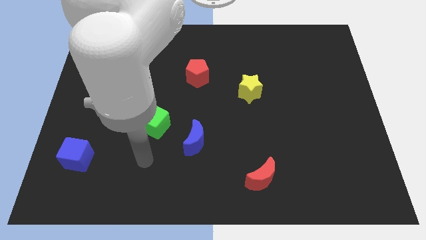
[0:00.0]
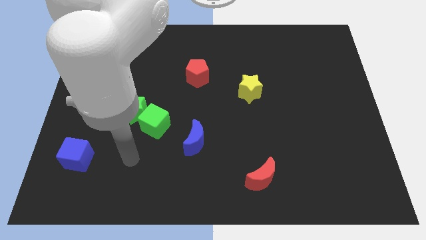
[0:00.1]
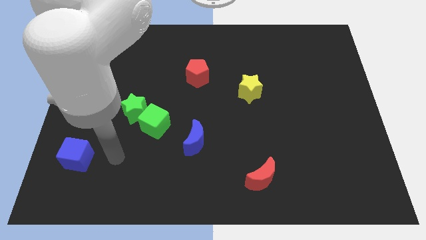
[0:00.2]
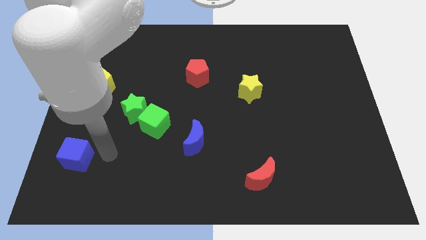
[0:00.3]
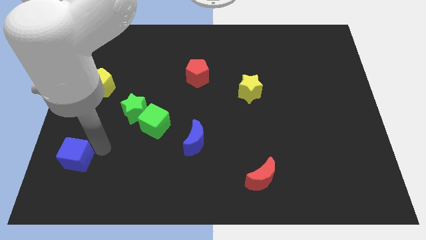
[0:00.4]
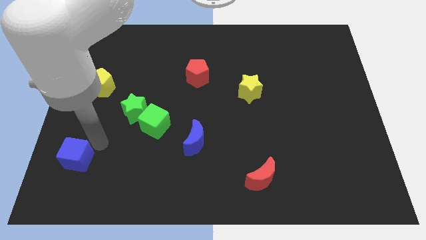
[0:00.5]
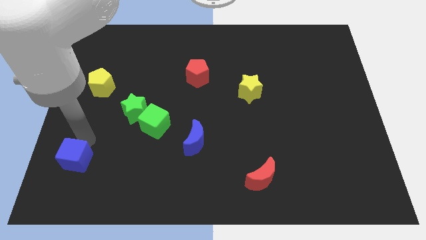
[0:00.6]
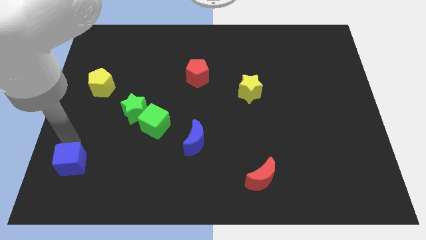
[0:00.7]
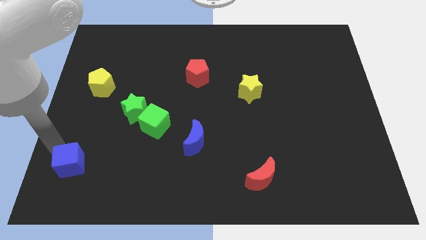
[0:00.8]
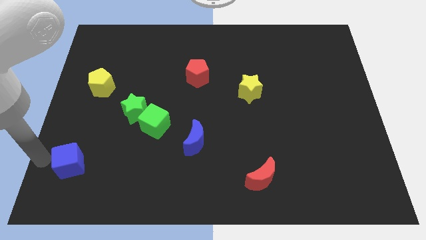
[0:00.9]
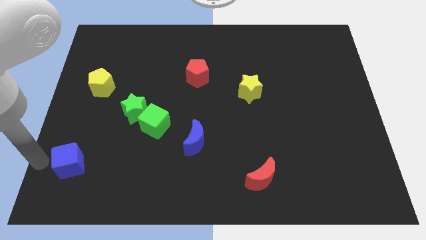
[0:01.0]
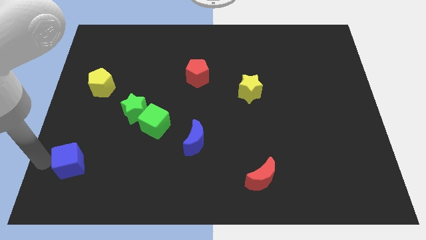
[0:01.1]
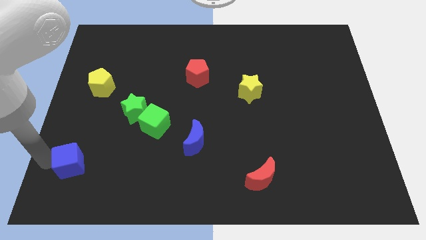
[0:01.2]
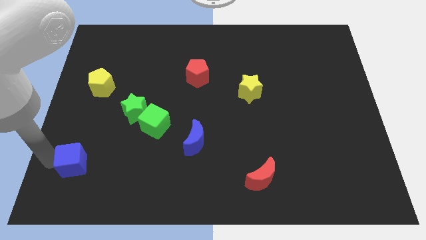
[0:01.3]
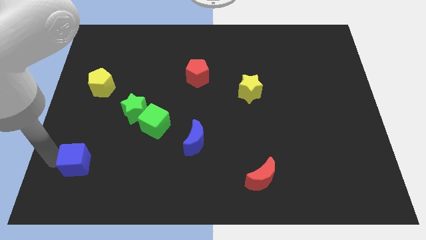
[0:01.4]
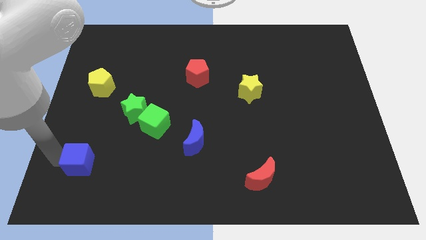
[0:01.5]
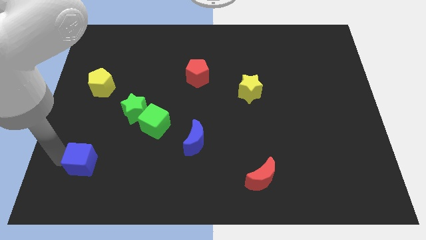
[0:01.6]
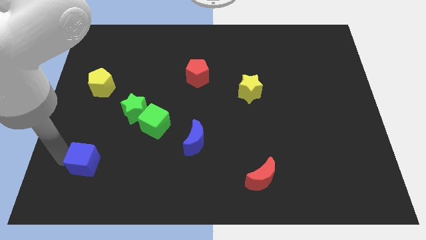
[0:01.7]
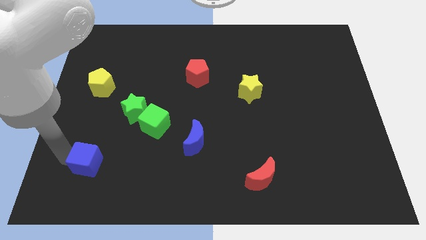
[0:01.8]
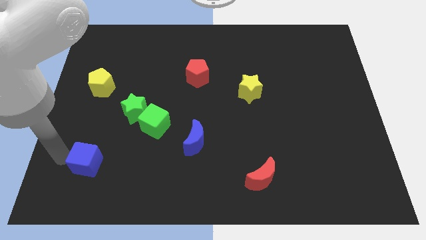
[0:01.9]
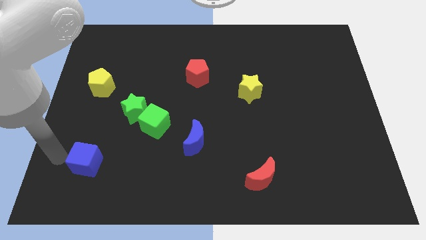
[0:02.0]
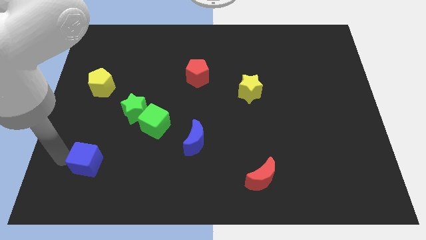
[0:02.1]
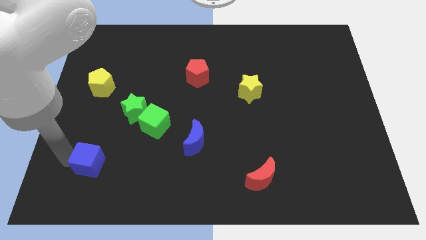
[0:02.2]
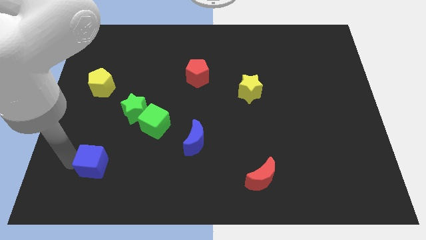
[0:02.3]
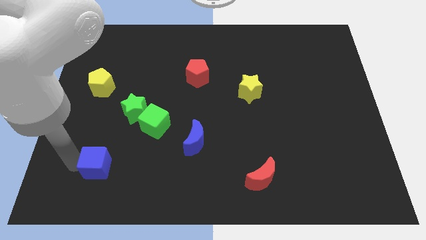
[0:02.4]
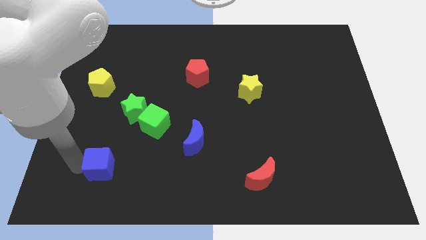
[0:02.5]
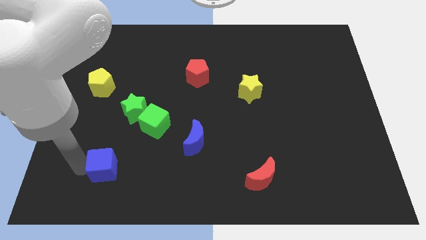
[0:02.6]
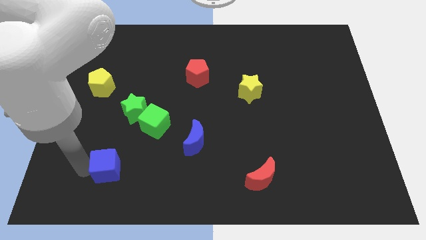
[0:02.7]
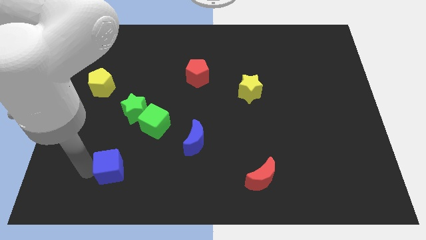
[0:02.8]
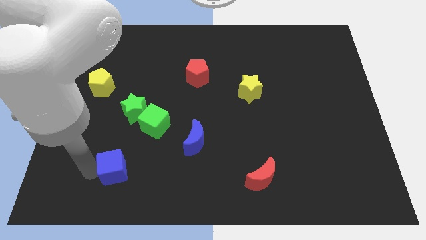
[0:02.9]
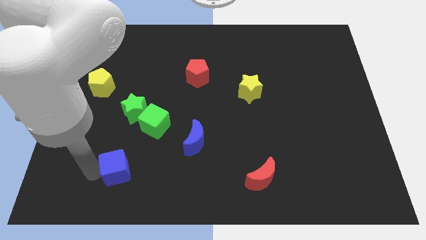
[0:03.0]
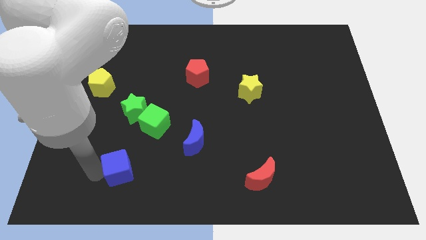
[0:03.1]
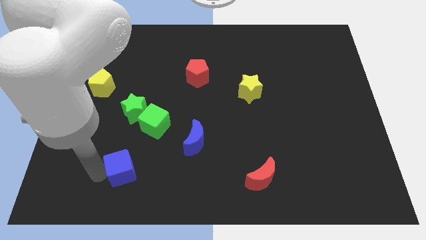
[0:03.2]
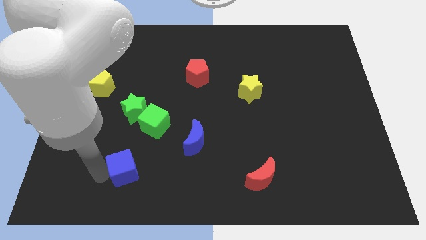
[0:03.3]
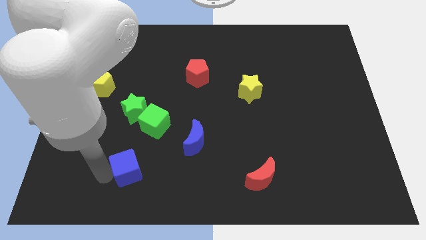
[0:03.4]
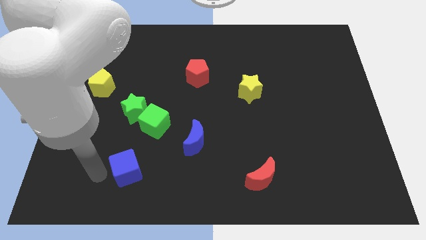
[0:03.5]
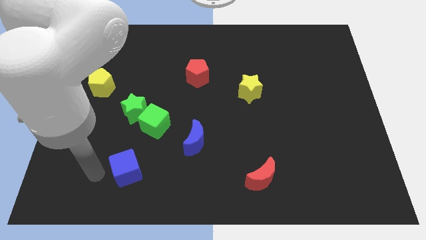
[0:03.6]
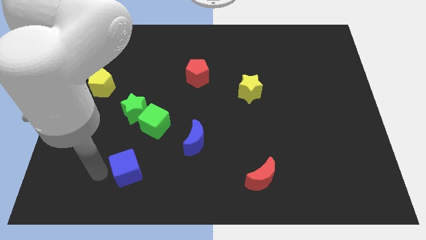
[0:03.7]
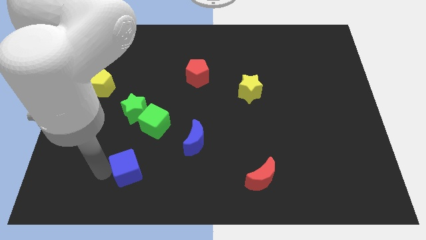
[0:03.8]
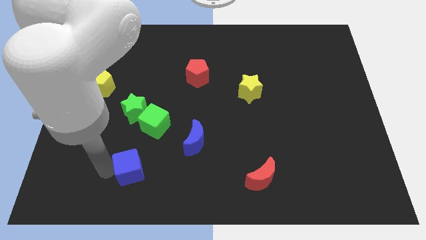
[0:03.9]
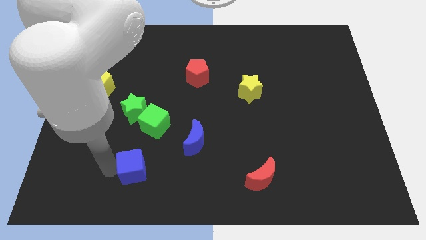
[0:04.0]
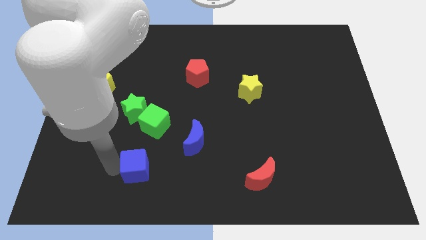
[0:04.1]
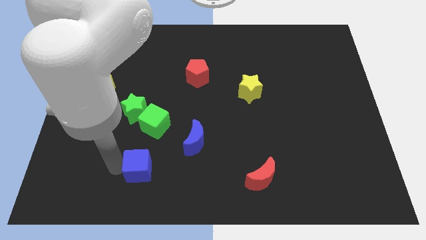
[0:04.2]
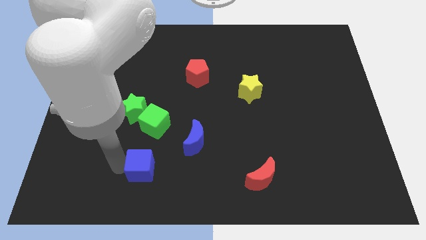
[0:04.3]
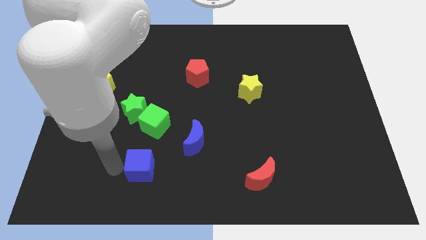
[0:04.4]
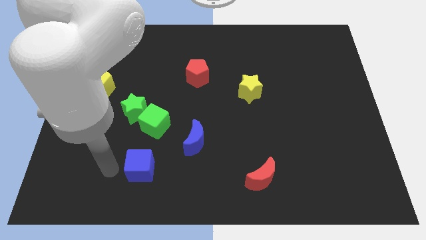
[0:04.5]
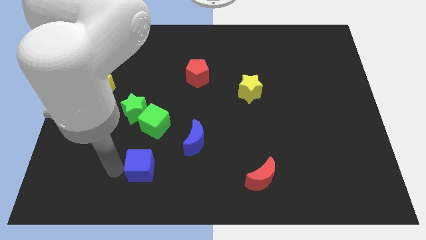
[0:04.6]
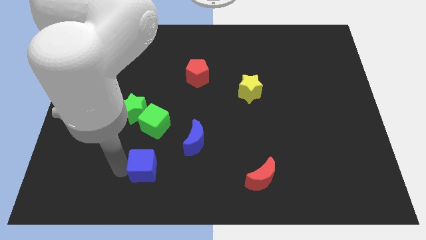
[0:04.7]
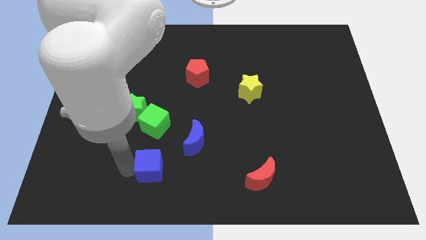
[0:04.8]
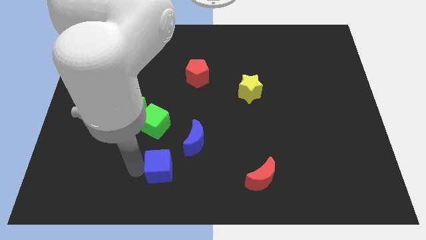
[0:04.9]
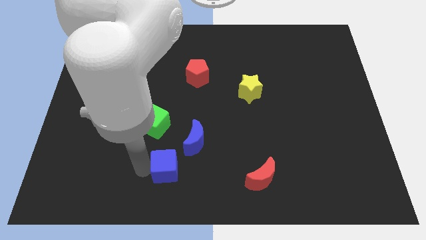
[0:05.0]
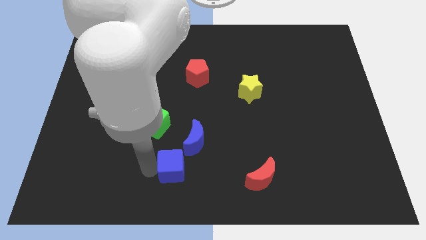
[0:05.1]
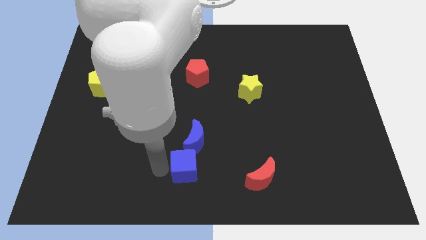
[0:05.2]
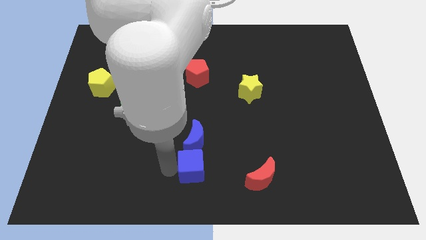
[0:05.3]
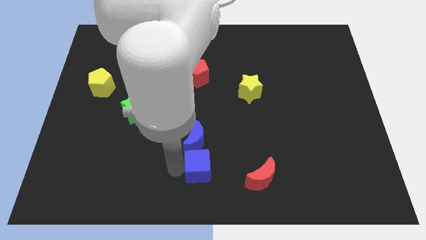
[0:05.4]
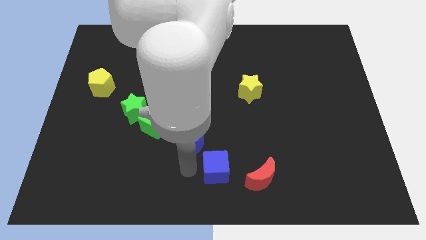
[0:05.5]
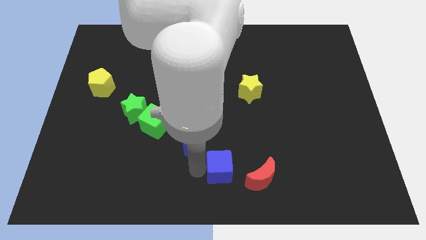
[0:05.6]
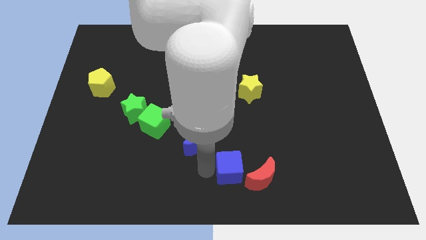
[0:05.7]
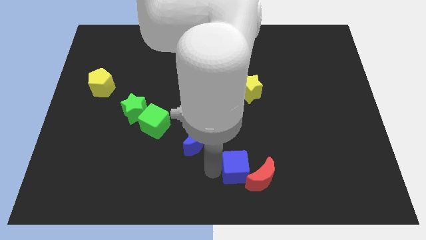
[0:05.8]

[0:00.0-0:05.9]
move the blue cube close to the red moon

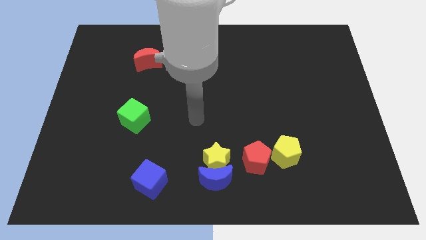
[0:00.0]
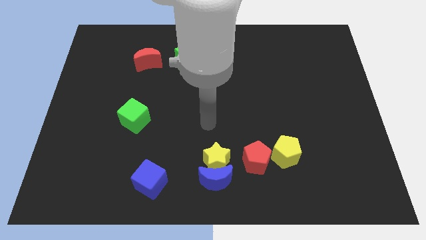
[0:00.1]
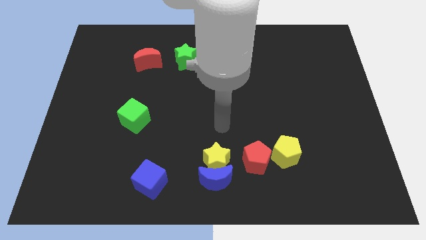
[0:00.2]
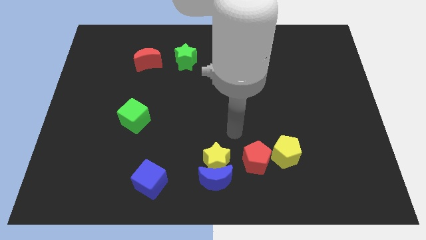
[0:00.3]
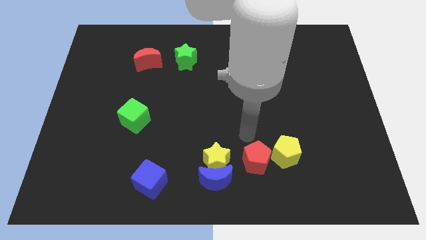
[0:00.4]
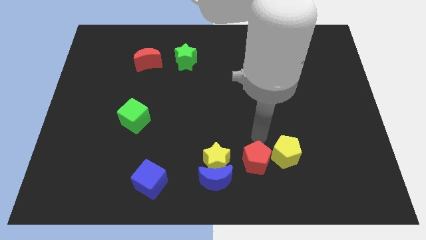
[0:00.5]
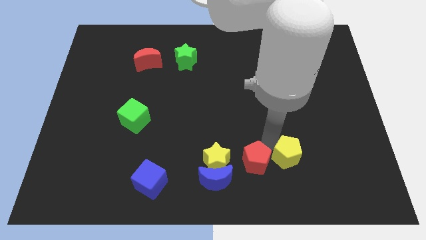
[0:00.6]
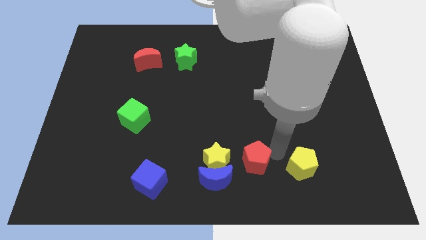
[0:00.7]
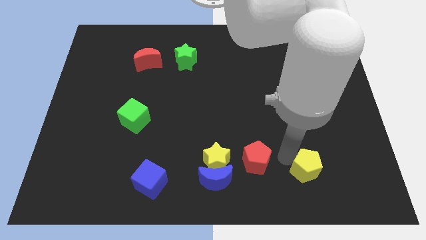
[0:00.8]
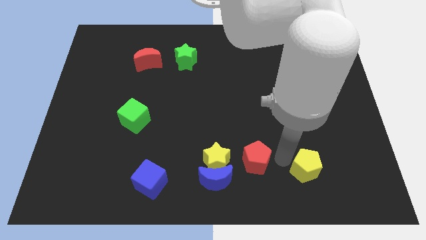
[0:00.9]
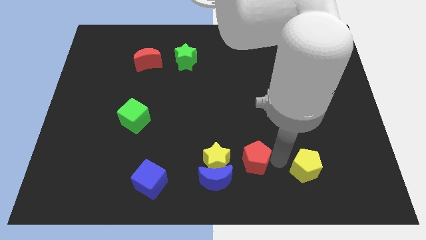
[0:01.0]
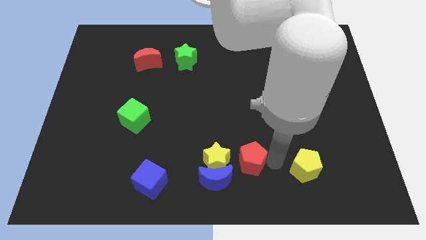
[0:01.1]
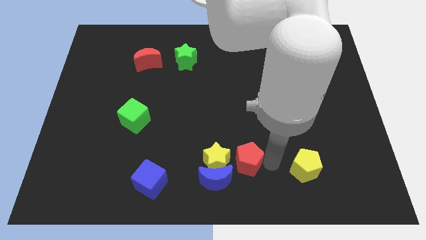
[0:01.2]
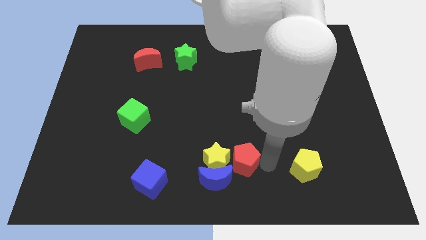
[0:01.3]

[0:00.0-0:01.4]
put the red pentagon towards the yellow star
